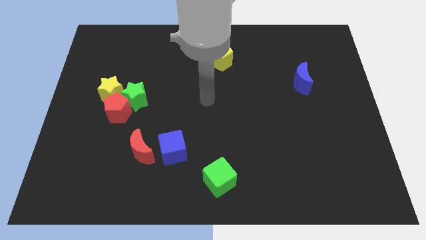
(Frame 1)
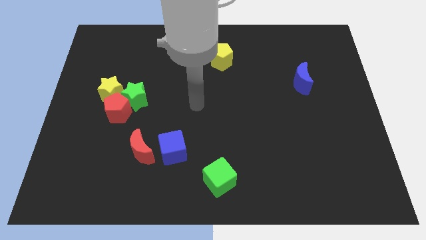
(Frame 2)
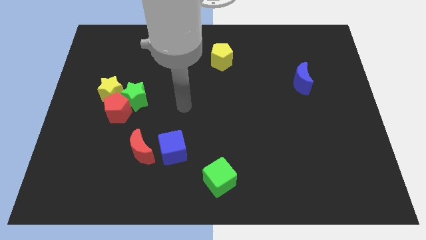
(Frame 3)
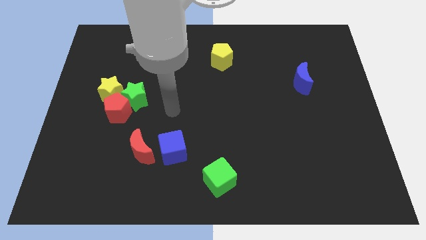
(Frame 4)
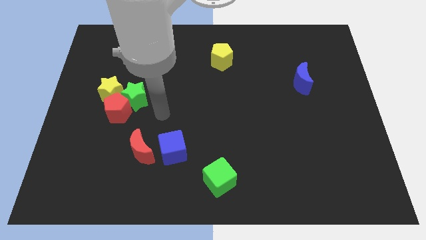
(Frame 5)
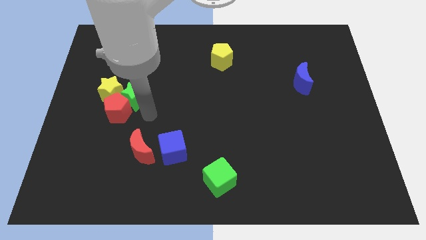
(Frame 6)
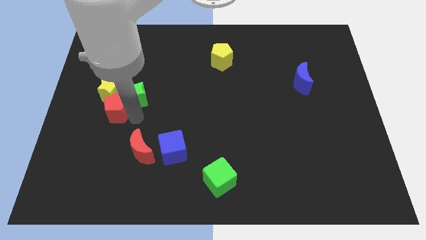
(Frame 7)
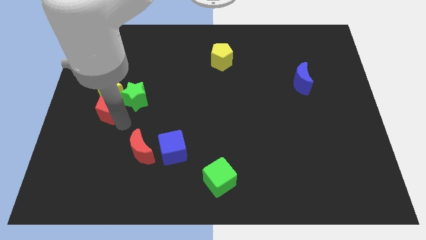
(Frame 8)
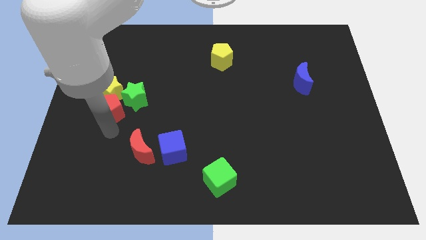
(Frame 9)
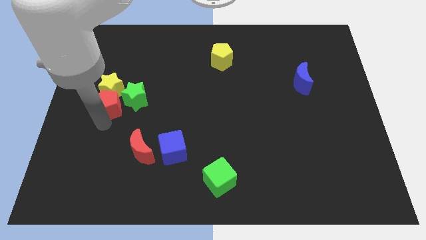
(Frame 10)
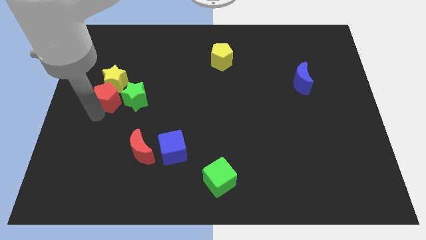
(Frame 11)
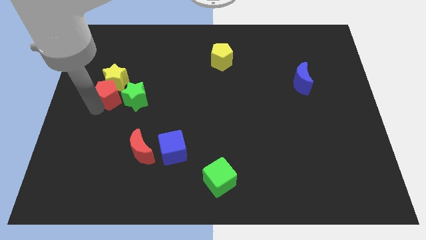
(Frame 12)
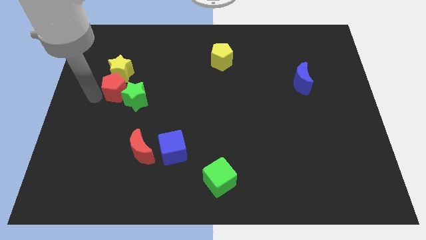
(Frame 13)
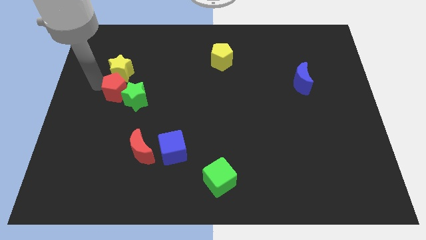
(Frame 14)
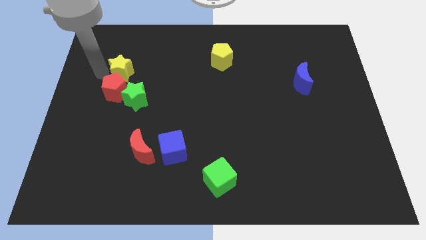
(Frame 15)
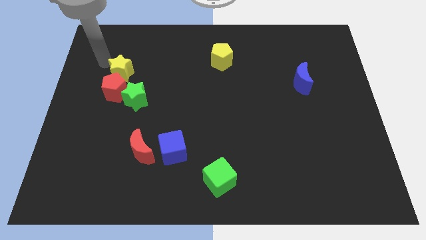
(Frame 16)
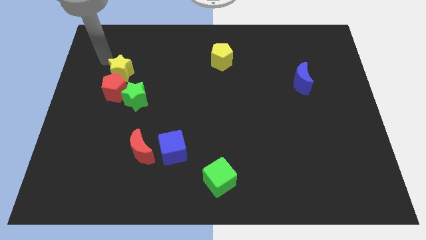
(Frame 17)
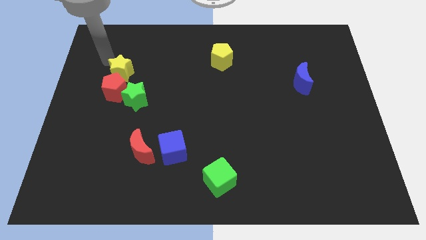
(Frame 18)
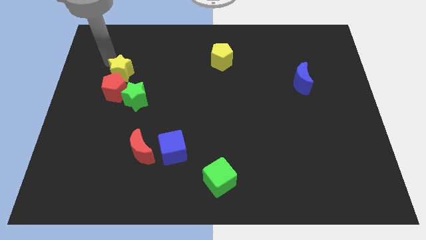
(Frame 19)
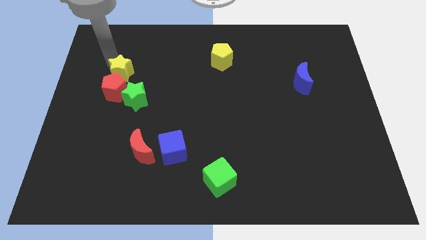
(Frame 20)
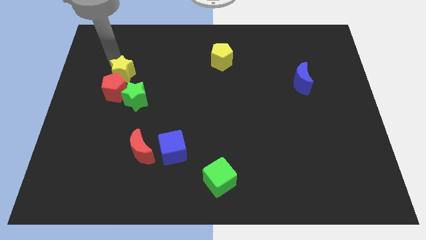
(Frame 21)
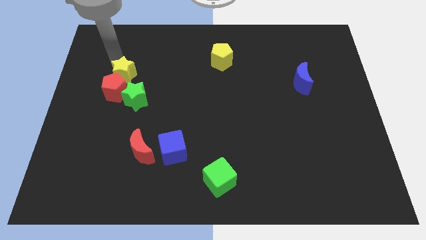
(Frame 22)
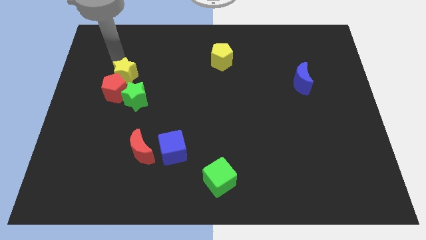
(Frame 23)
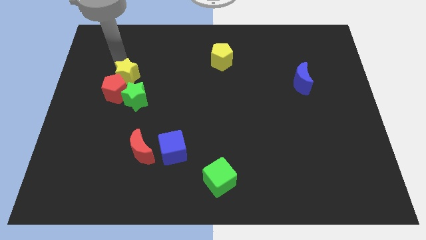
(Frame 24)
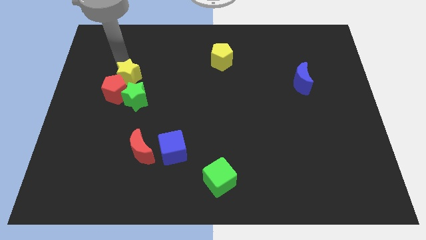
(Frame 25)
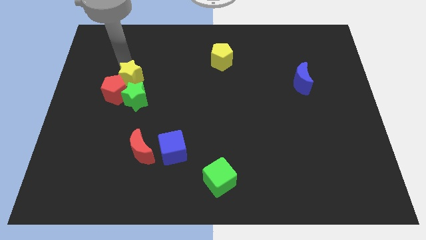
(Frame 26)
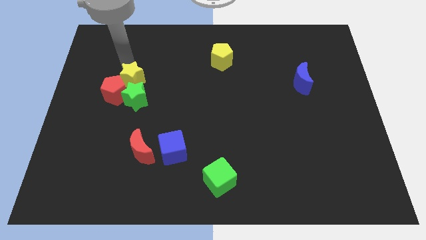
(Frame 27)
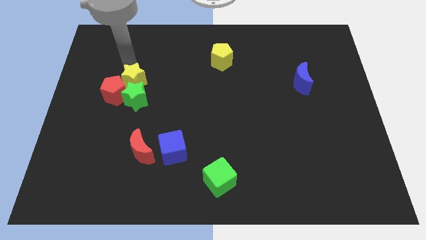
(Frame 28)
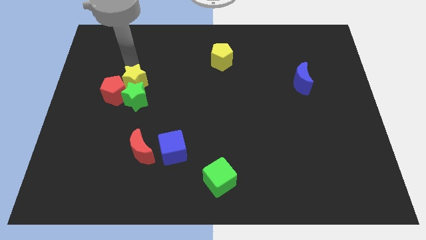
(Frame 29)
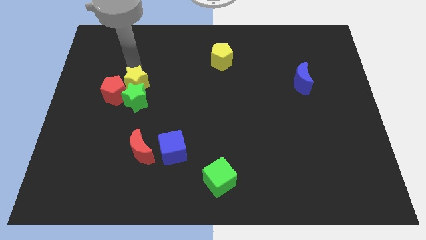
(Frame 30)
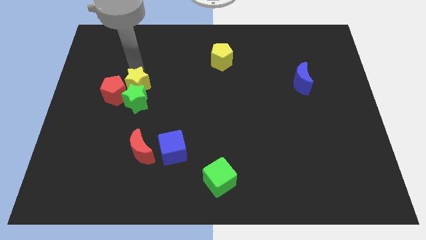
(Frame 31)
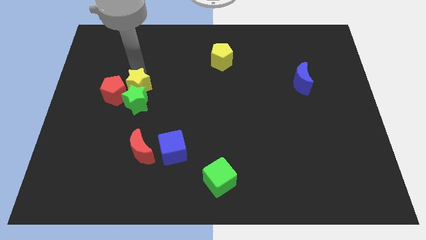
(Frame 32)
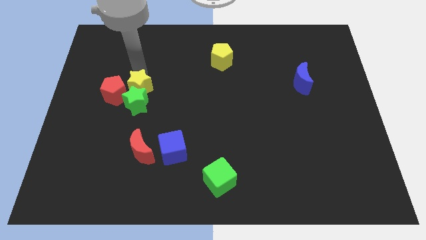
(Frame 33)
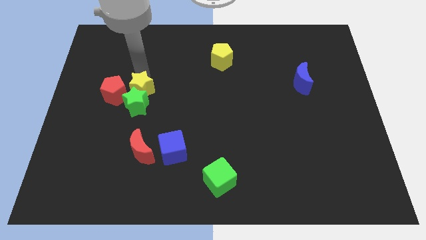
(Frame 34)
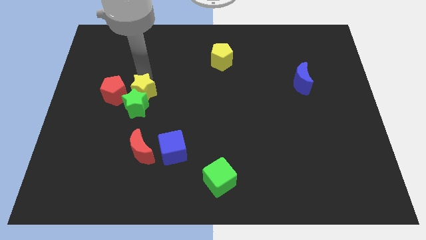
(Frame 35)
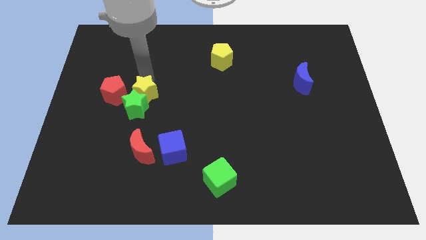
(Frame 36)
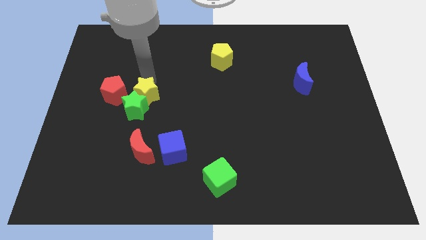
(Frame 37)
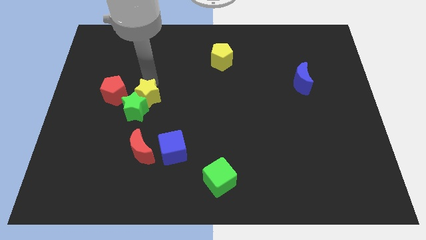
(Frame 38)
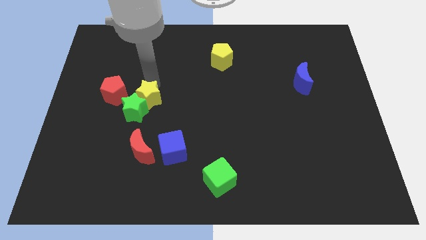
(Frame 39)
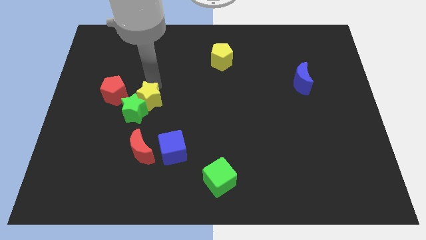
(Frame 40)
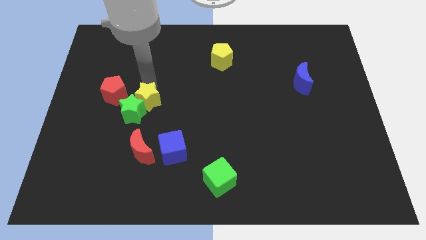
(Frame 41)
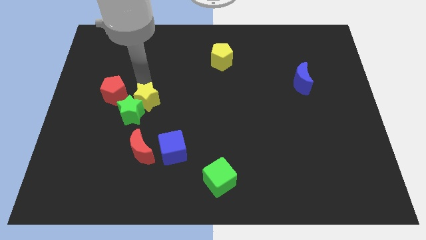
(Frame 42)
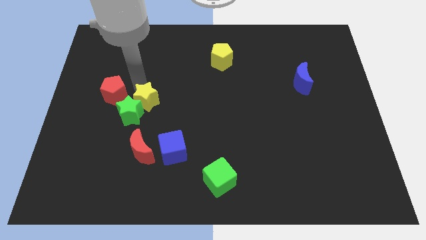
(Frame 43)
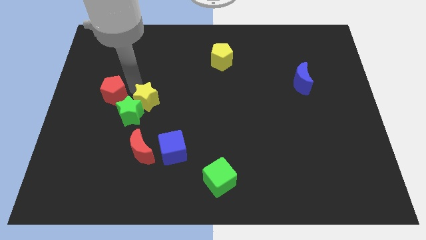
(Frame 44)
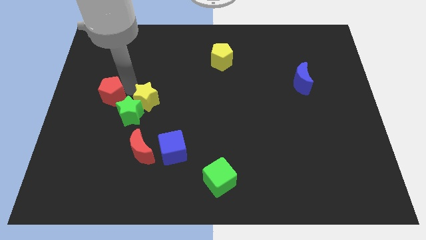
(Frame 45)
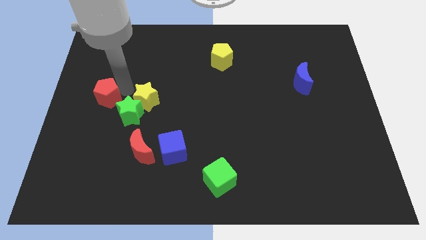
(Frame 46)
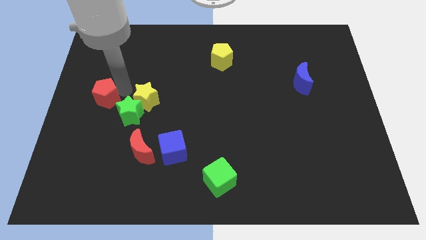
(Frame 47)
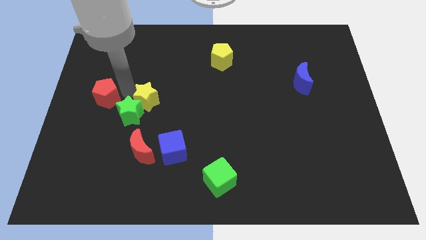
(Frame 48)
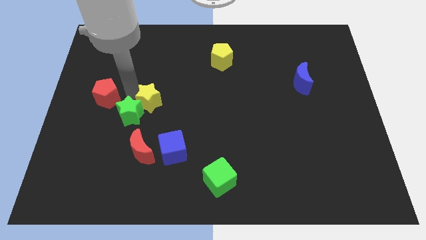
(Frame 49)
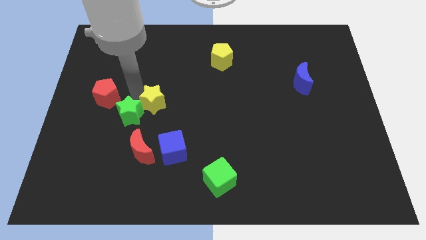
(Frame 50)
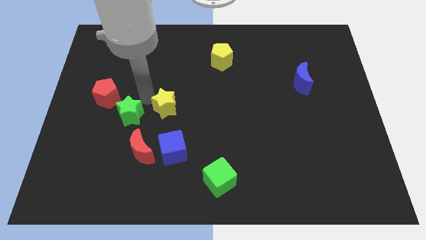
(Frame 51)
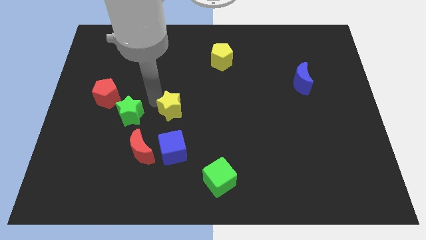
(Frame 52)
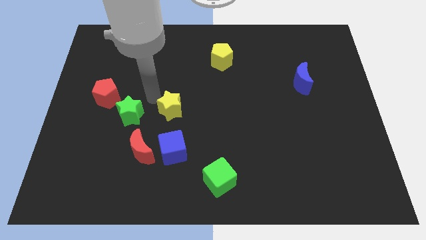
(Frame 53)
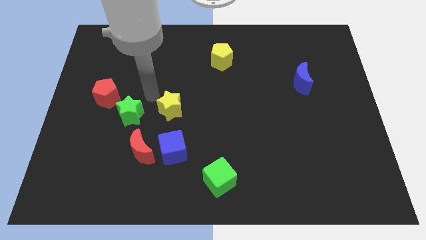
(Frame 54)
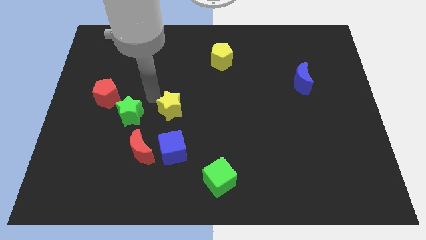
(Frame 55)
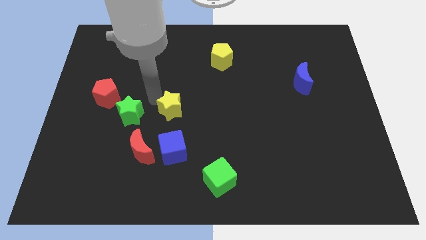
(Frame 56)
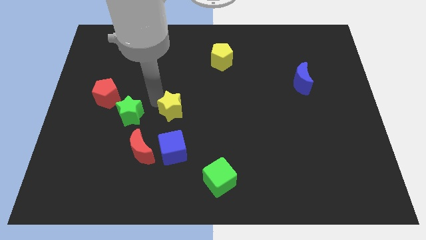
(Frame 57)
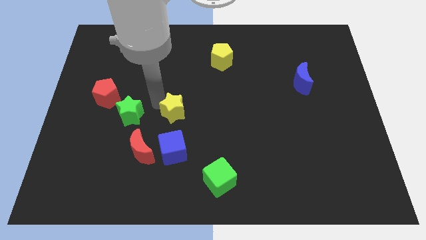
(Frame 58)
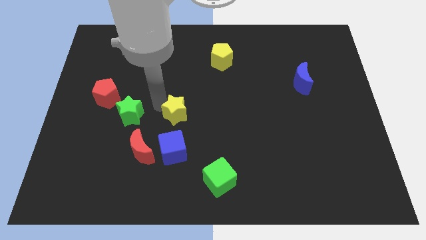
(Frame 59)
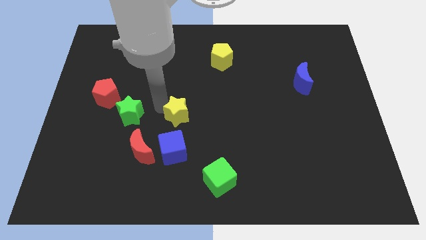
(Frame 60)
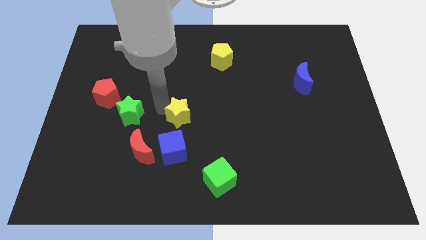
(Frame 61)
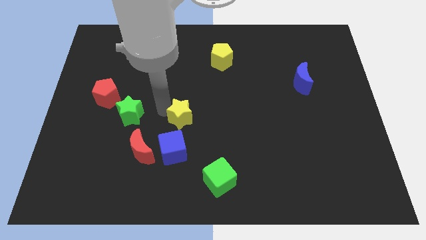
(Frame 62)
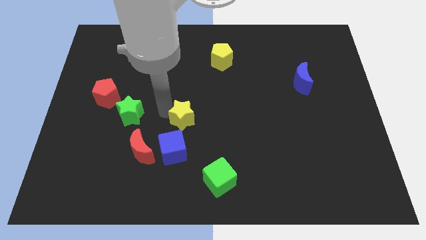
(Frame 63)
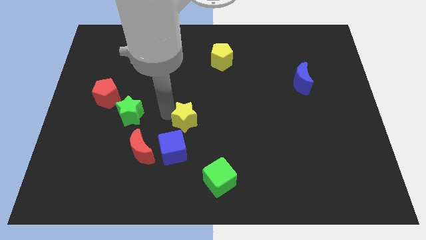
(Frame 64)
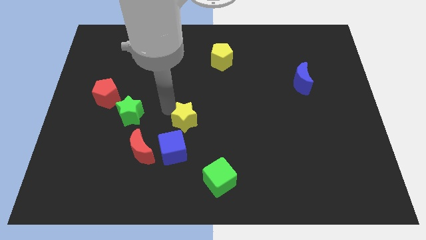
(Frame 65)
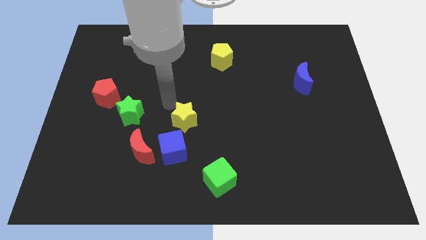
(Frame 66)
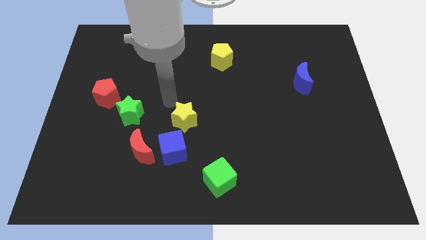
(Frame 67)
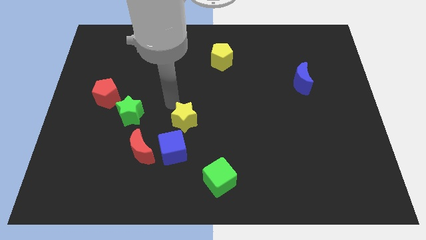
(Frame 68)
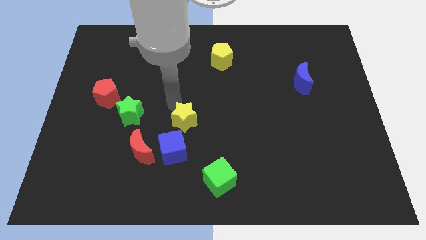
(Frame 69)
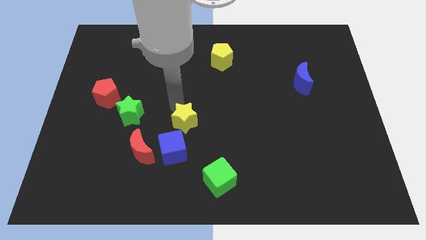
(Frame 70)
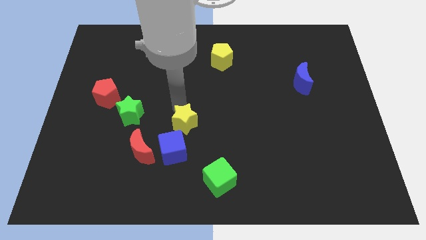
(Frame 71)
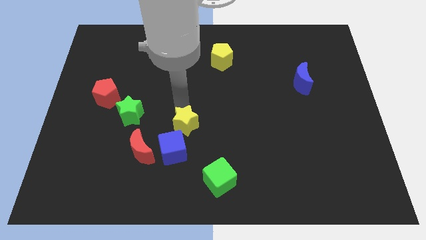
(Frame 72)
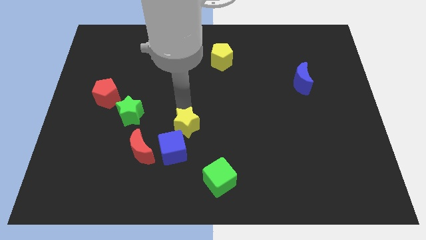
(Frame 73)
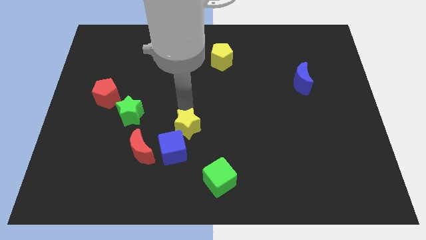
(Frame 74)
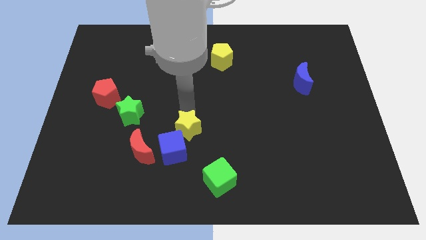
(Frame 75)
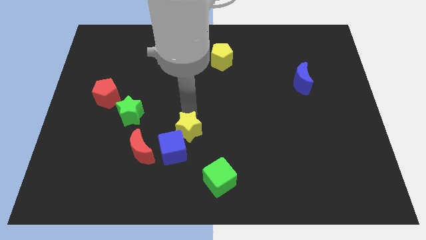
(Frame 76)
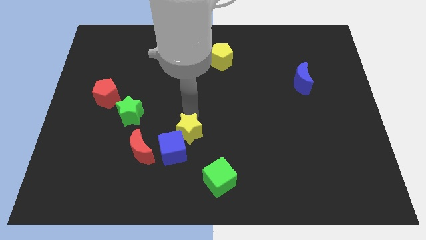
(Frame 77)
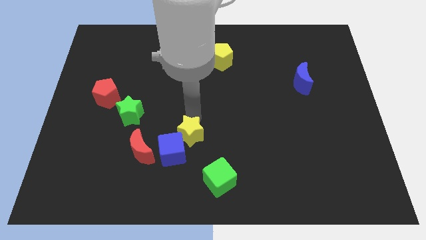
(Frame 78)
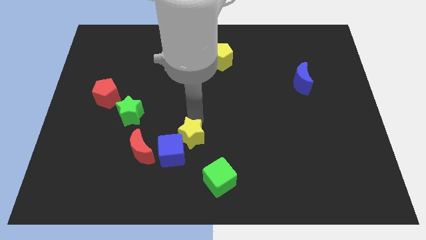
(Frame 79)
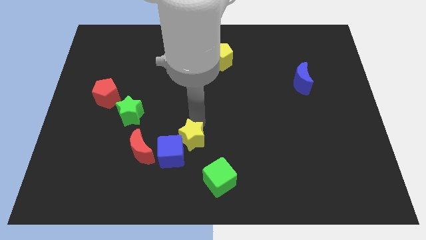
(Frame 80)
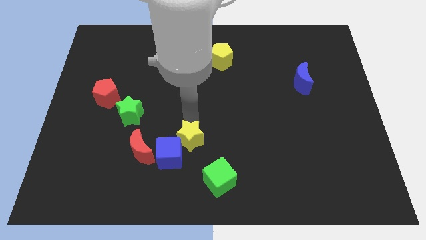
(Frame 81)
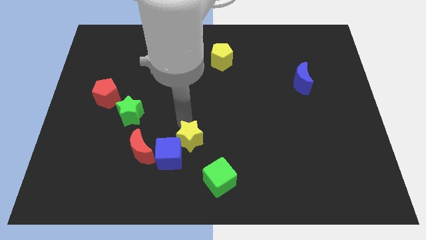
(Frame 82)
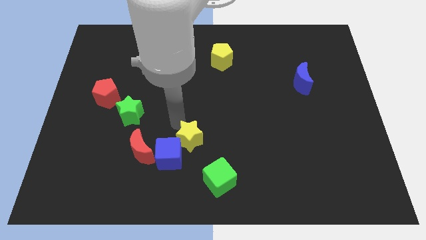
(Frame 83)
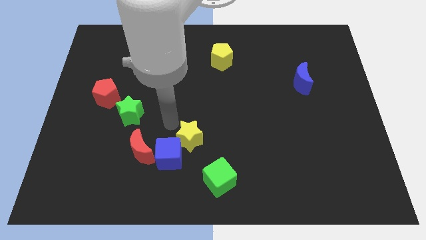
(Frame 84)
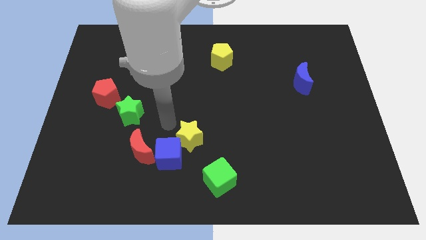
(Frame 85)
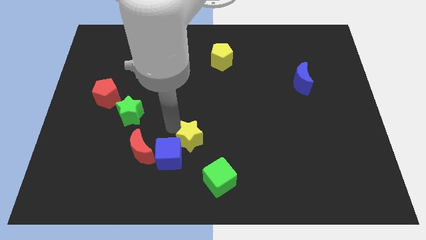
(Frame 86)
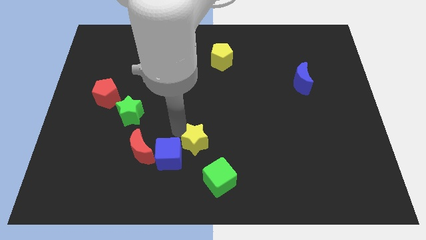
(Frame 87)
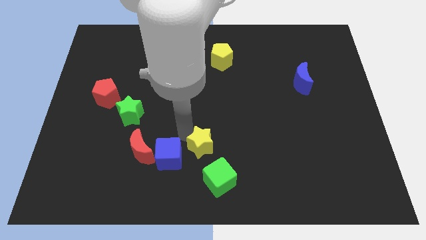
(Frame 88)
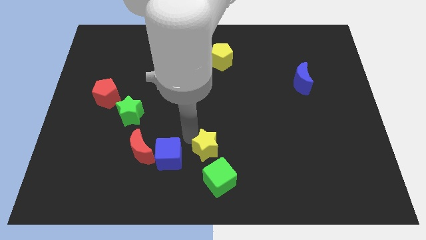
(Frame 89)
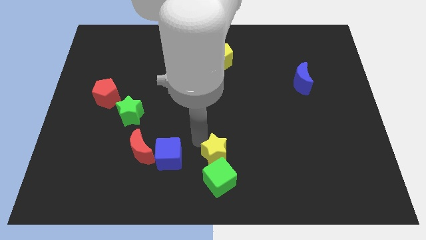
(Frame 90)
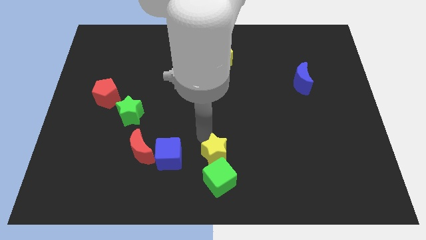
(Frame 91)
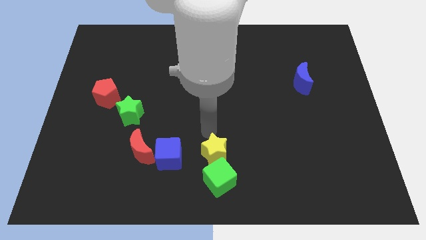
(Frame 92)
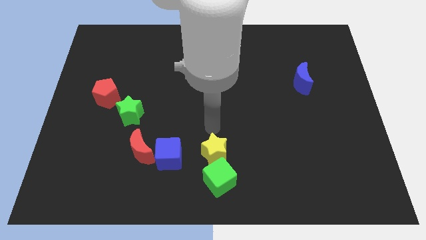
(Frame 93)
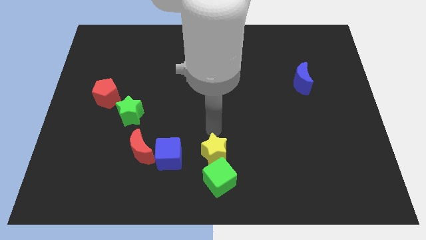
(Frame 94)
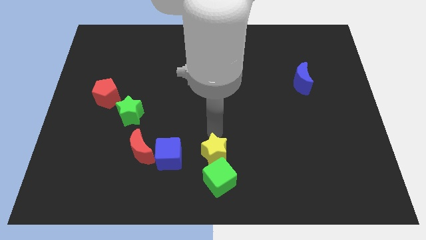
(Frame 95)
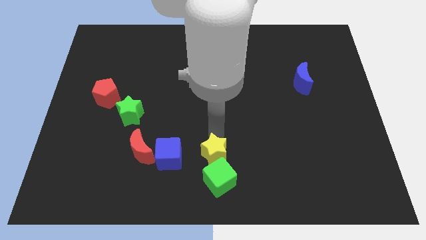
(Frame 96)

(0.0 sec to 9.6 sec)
put the yellow star close to the green cube
